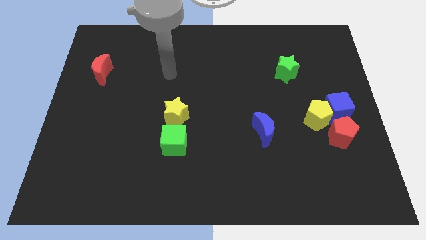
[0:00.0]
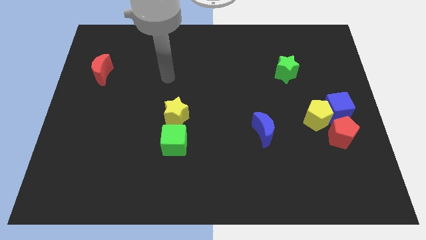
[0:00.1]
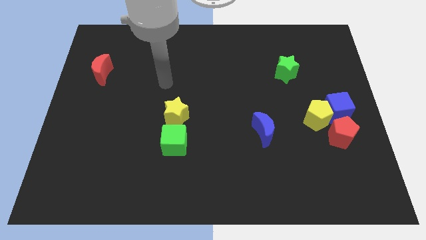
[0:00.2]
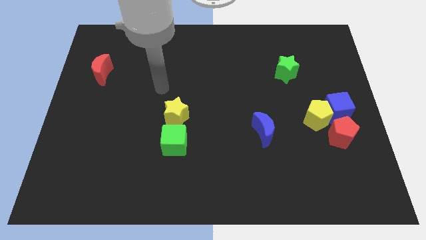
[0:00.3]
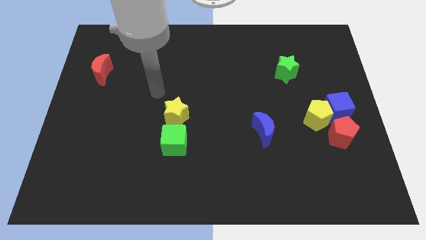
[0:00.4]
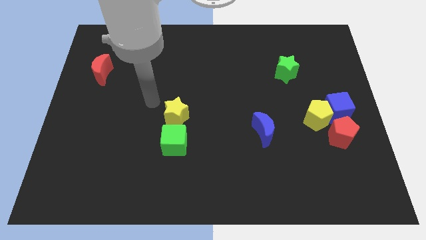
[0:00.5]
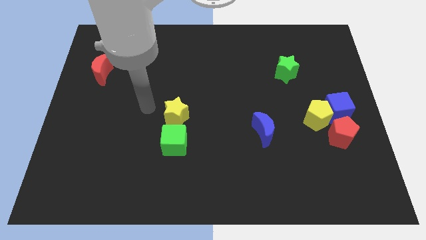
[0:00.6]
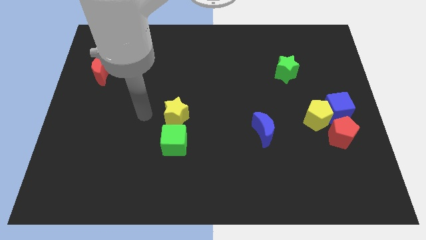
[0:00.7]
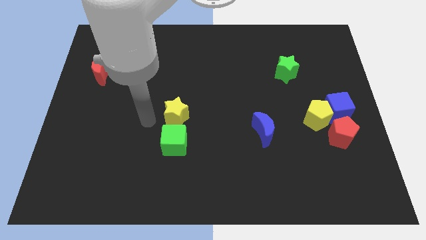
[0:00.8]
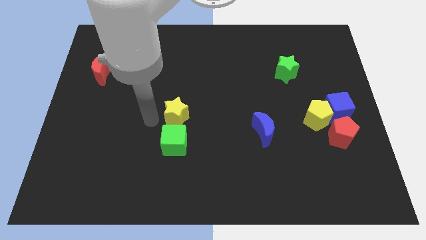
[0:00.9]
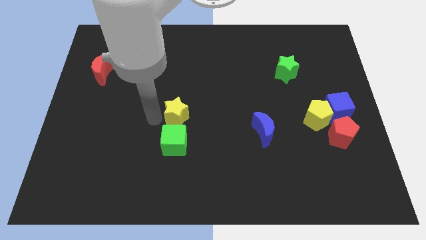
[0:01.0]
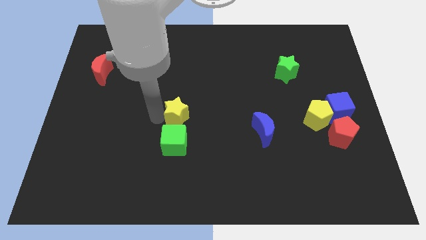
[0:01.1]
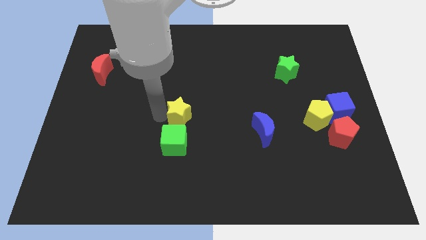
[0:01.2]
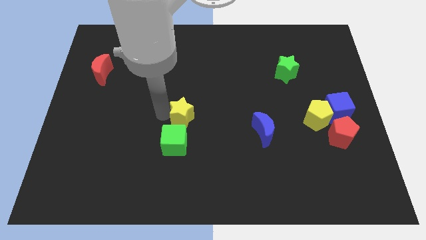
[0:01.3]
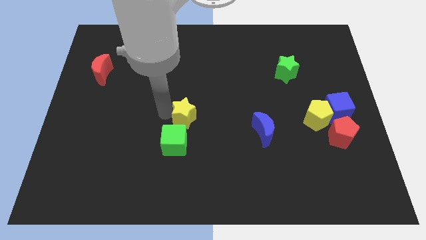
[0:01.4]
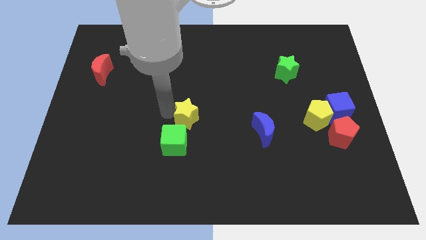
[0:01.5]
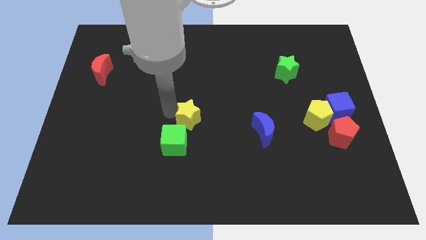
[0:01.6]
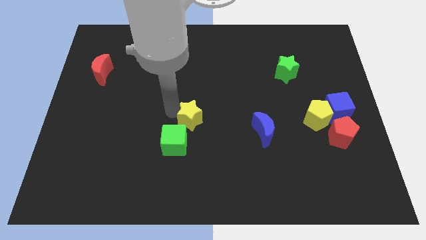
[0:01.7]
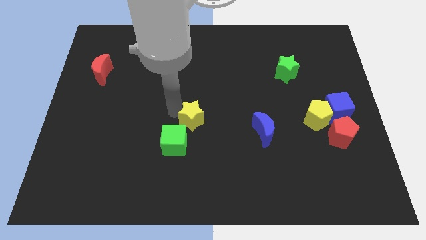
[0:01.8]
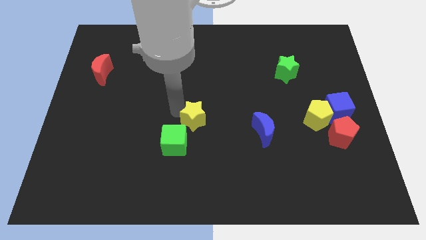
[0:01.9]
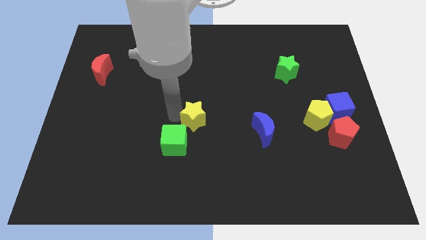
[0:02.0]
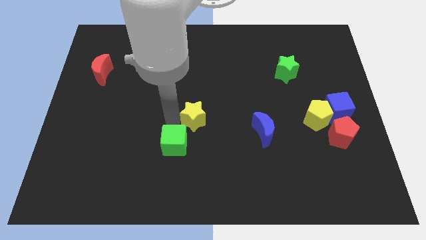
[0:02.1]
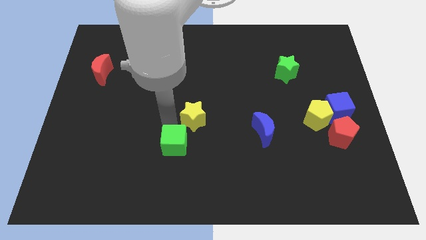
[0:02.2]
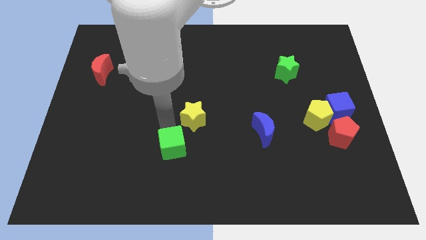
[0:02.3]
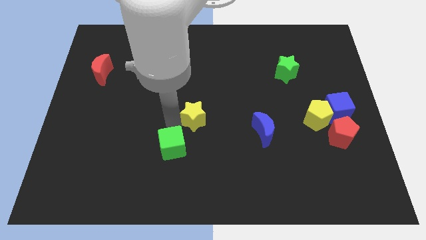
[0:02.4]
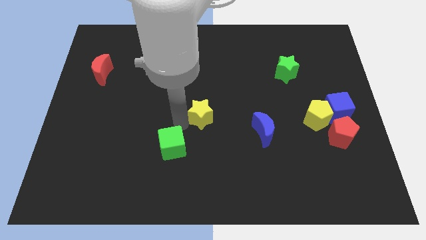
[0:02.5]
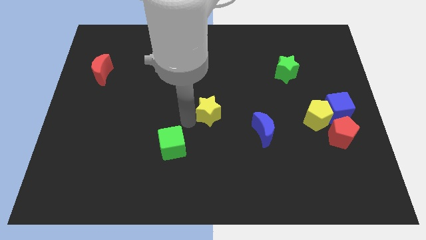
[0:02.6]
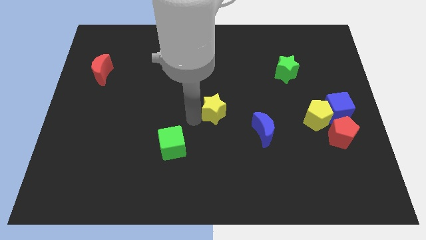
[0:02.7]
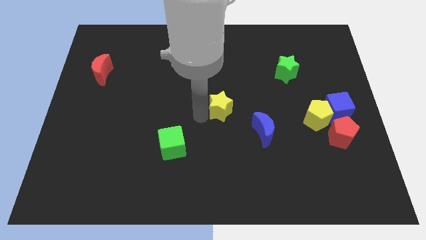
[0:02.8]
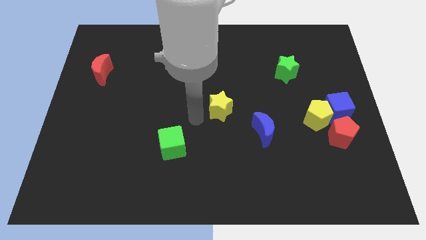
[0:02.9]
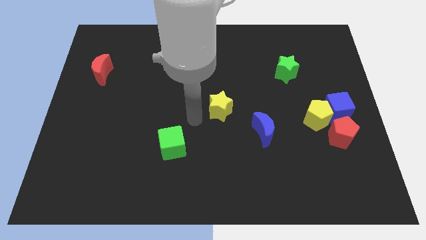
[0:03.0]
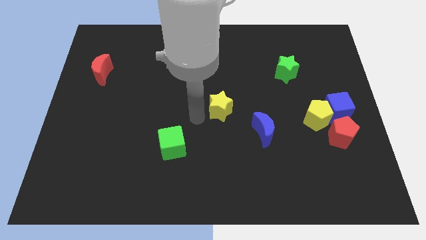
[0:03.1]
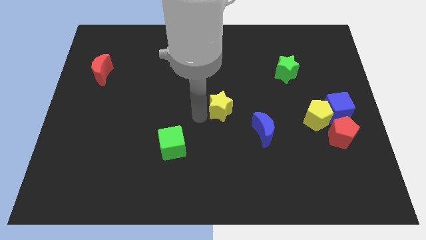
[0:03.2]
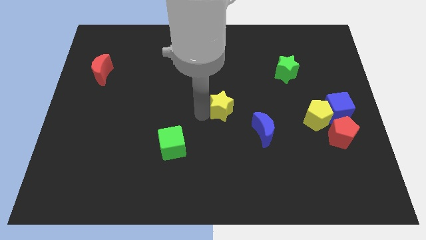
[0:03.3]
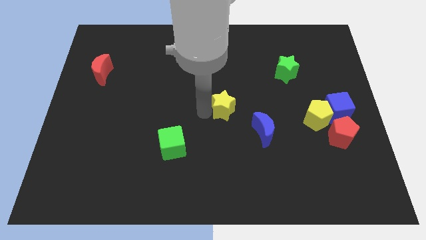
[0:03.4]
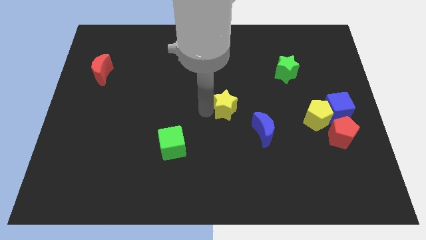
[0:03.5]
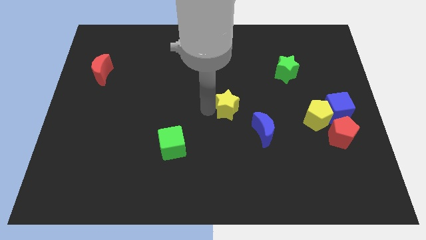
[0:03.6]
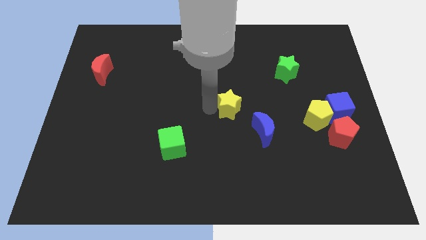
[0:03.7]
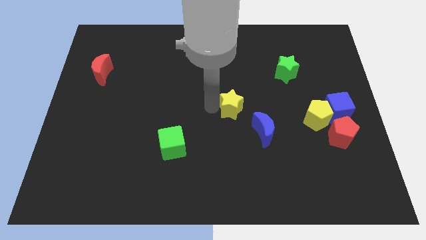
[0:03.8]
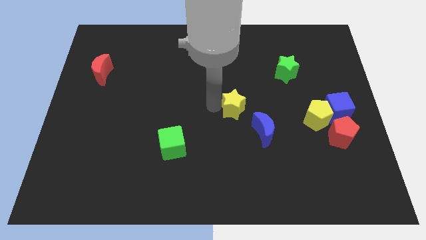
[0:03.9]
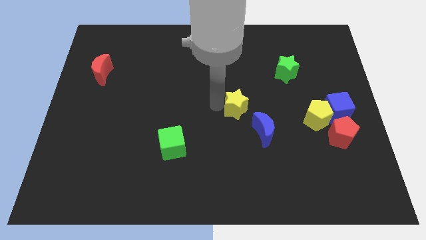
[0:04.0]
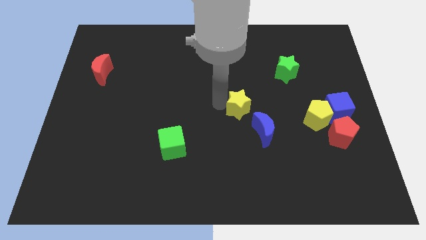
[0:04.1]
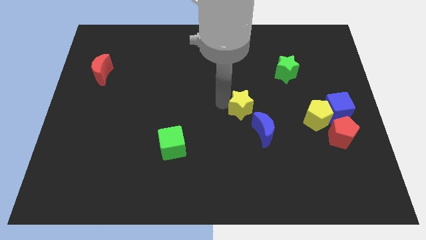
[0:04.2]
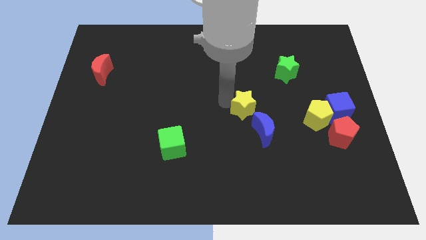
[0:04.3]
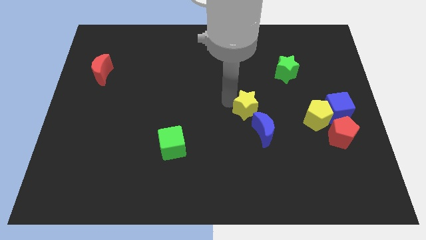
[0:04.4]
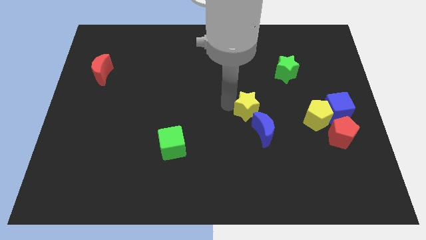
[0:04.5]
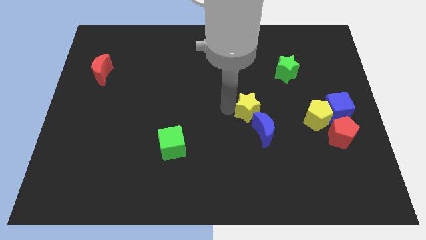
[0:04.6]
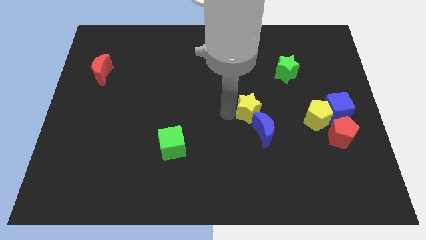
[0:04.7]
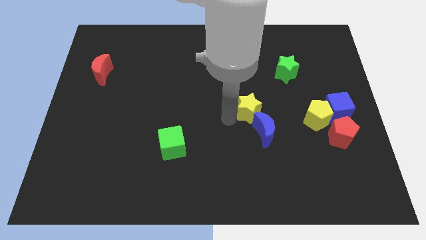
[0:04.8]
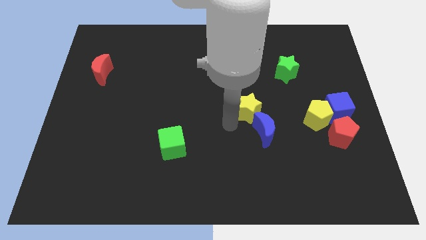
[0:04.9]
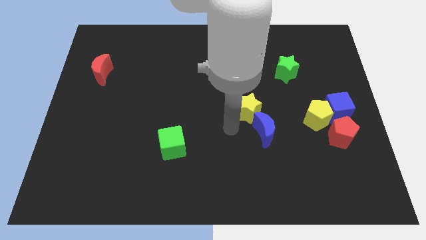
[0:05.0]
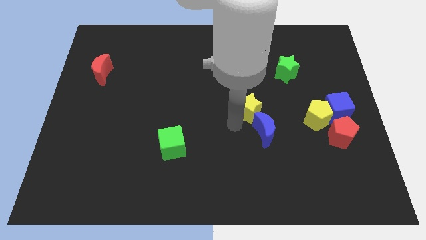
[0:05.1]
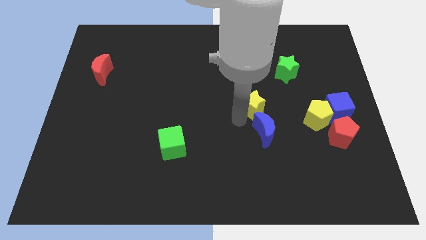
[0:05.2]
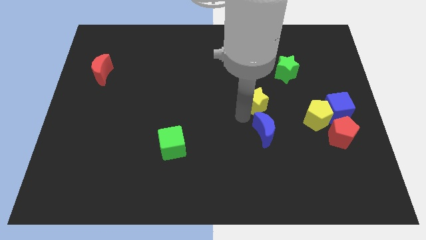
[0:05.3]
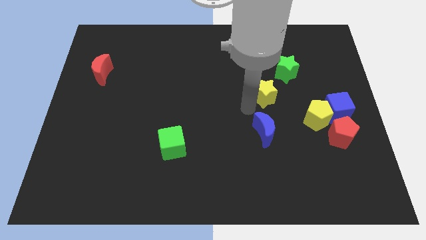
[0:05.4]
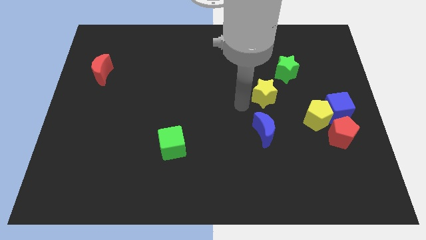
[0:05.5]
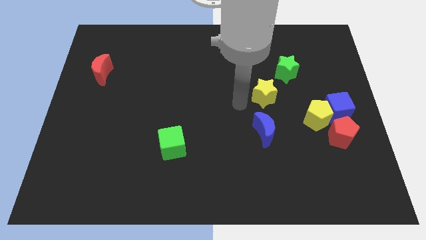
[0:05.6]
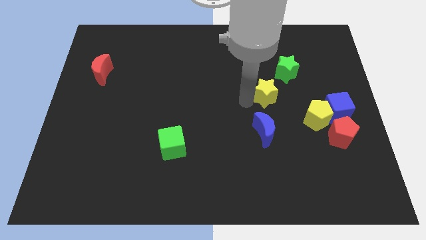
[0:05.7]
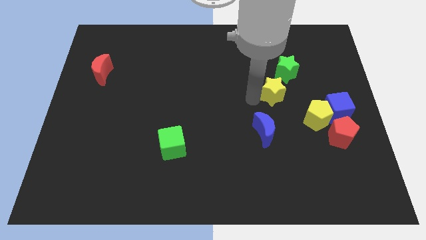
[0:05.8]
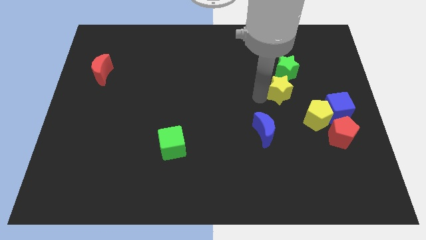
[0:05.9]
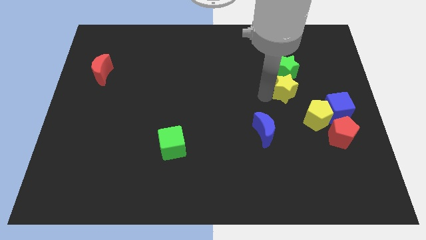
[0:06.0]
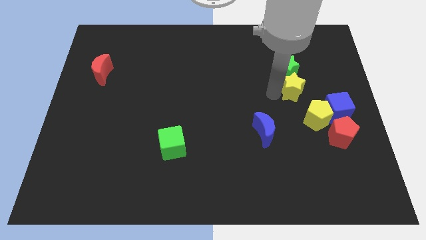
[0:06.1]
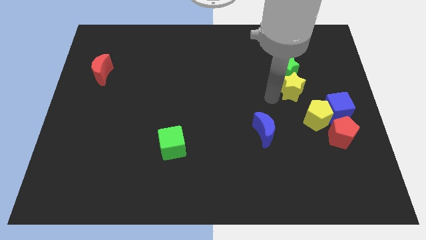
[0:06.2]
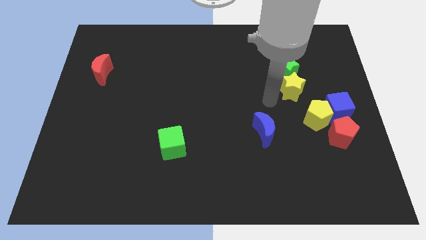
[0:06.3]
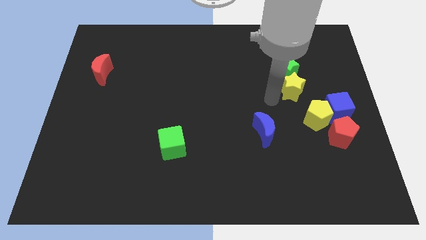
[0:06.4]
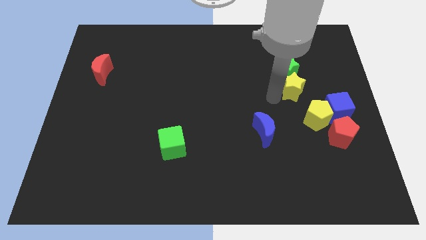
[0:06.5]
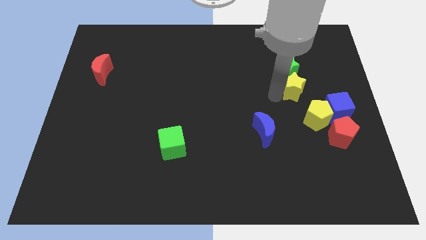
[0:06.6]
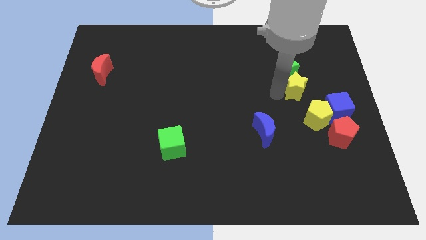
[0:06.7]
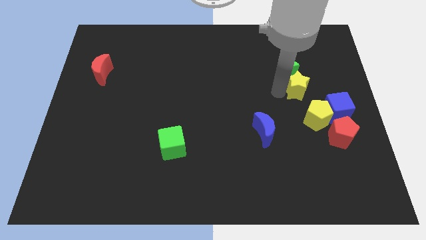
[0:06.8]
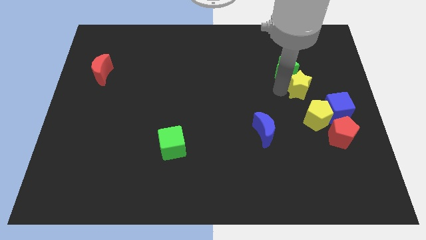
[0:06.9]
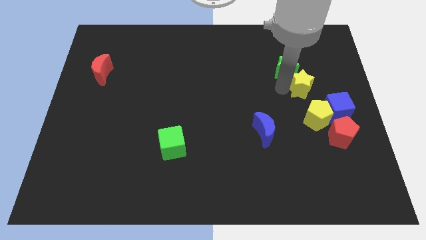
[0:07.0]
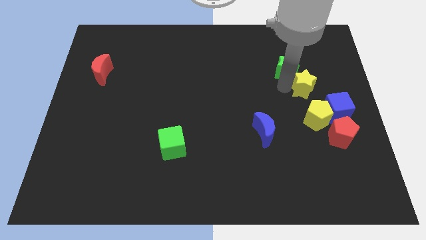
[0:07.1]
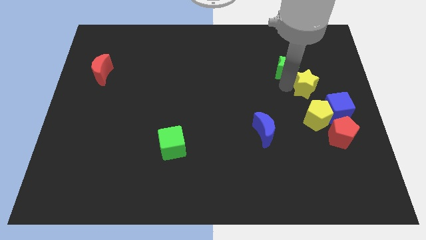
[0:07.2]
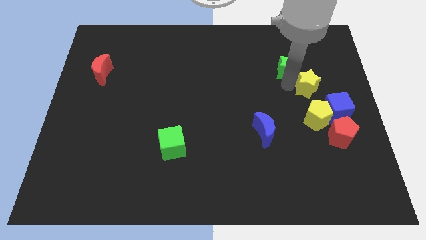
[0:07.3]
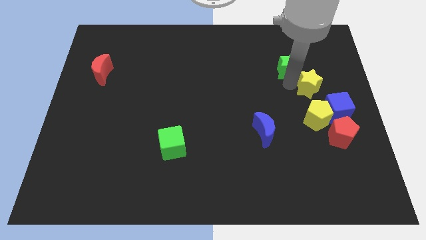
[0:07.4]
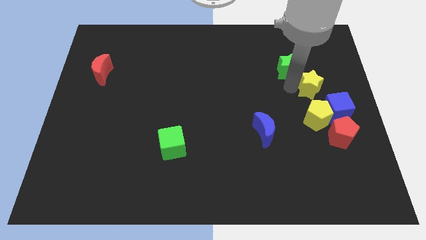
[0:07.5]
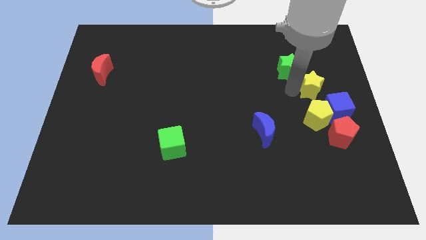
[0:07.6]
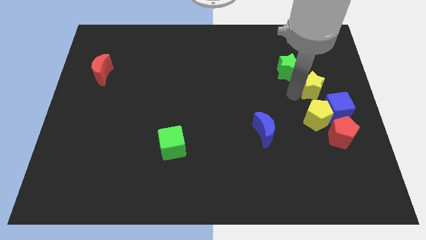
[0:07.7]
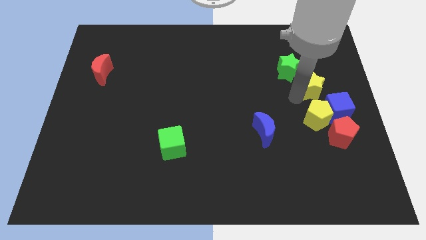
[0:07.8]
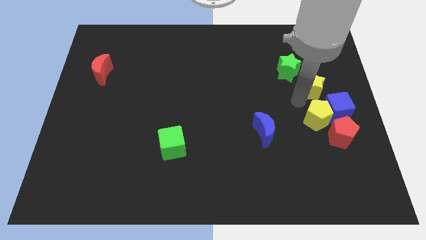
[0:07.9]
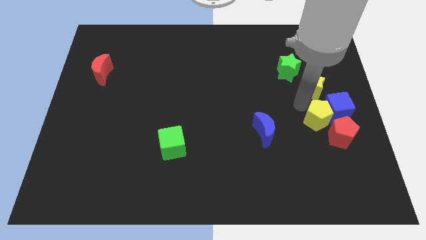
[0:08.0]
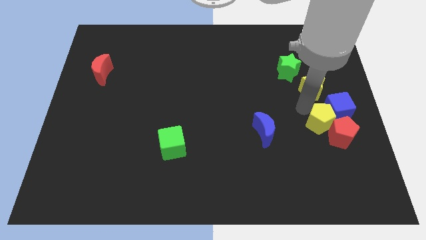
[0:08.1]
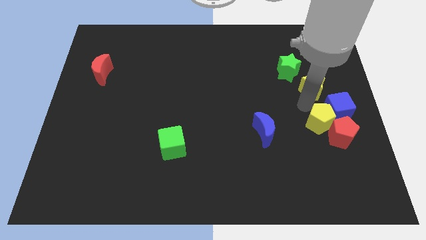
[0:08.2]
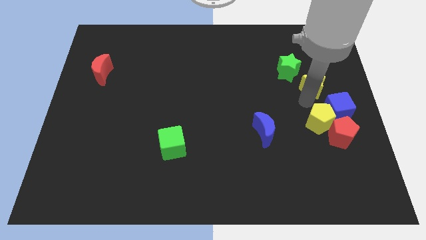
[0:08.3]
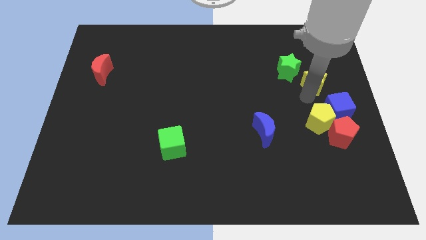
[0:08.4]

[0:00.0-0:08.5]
move the yellow star to the right of the green star
